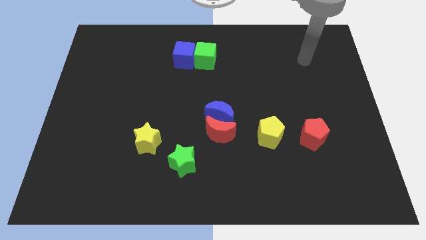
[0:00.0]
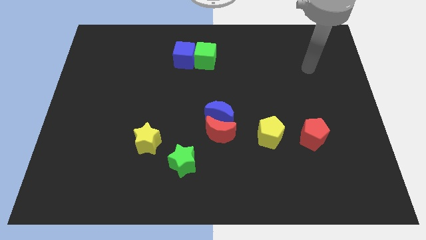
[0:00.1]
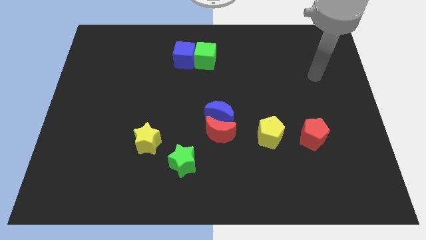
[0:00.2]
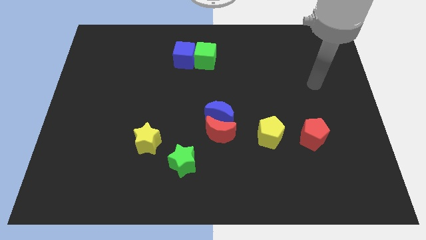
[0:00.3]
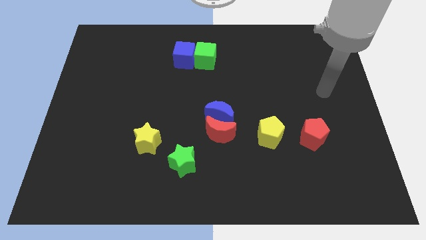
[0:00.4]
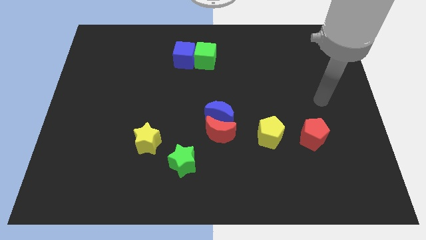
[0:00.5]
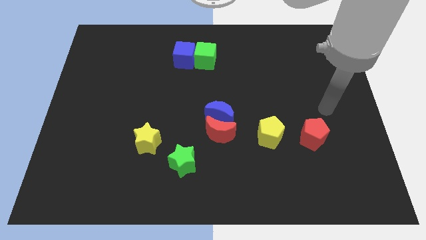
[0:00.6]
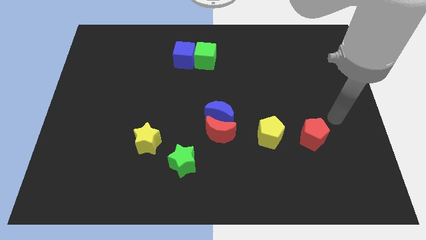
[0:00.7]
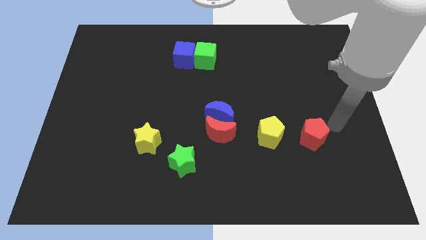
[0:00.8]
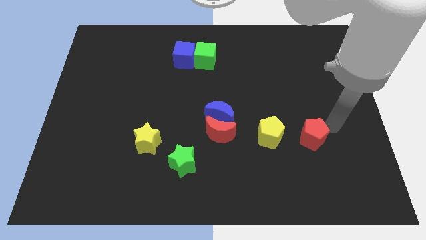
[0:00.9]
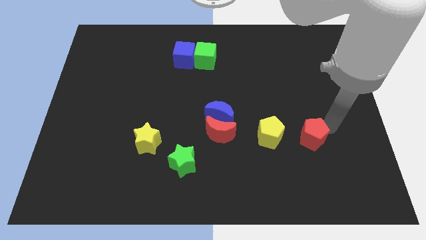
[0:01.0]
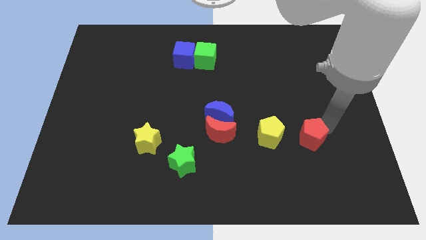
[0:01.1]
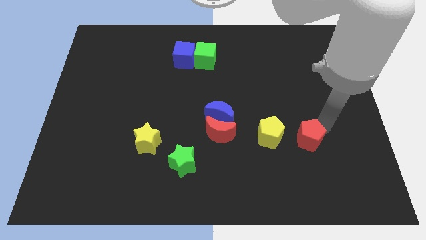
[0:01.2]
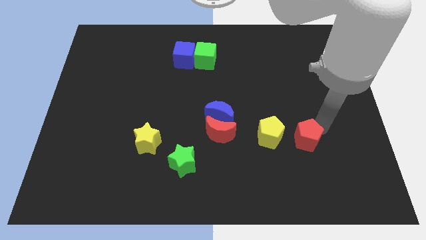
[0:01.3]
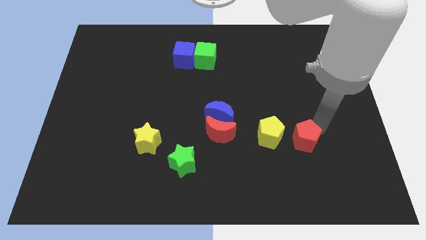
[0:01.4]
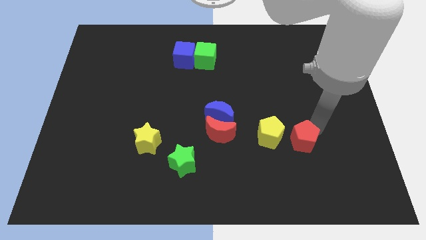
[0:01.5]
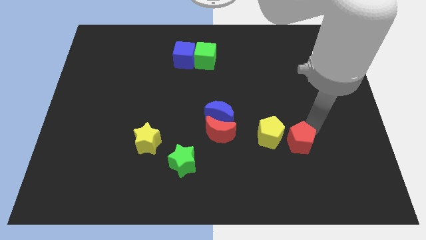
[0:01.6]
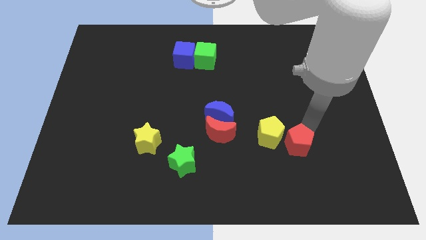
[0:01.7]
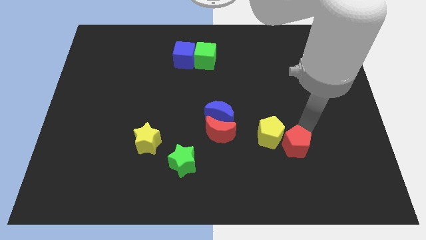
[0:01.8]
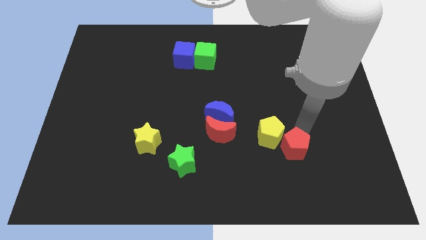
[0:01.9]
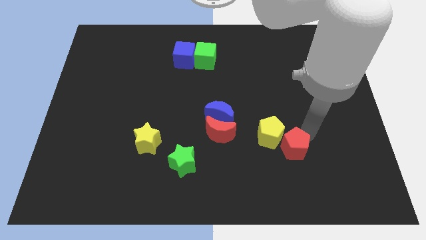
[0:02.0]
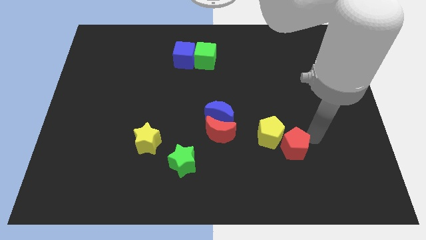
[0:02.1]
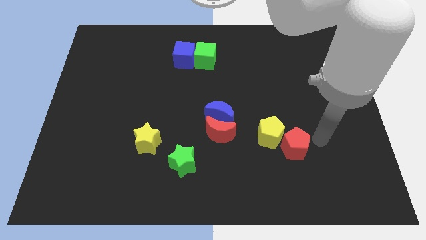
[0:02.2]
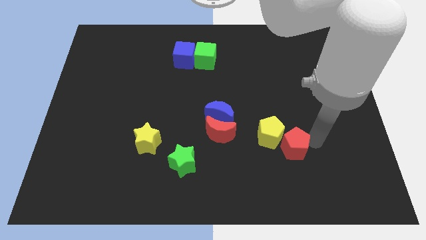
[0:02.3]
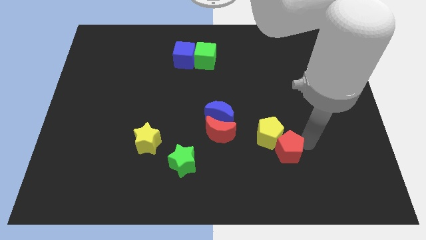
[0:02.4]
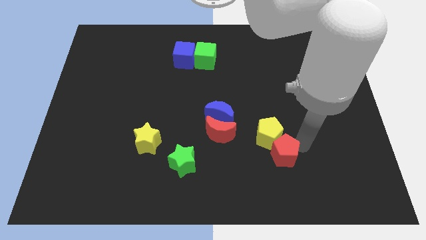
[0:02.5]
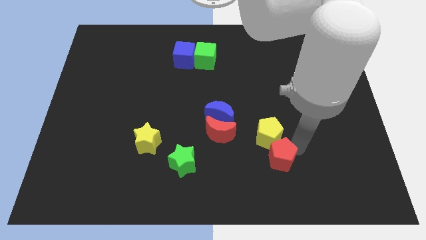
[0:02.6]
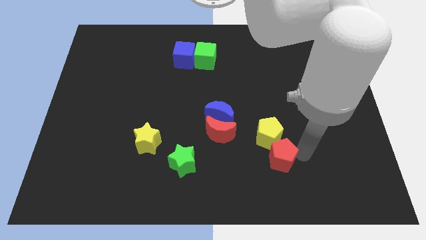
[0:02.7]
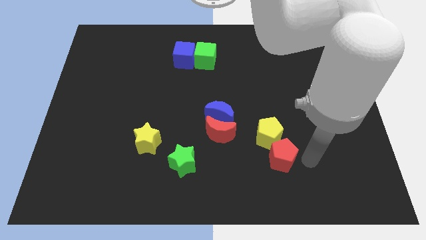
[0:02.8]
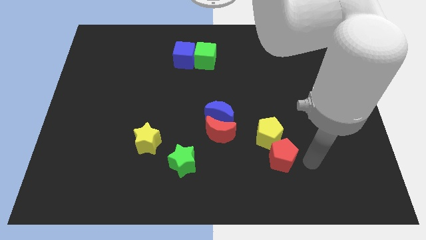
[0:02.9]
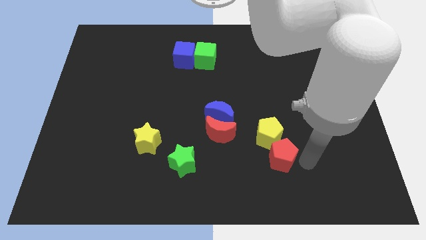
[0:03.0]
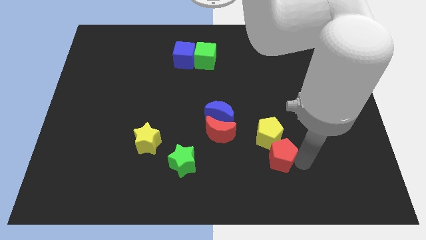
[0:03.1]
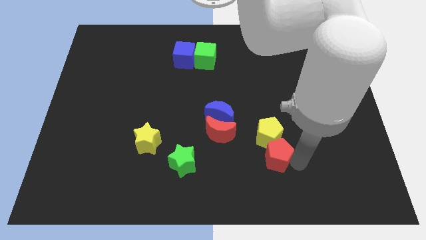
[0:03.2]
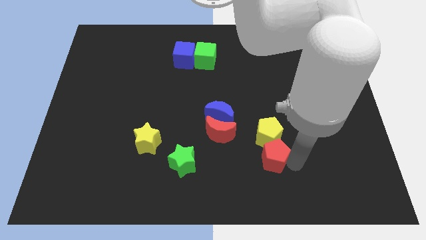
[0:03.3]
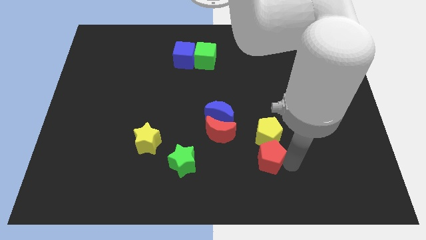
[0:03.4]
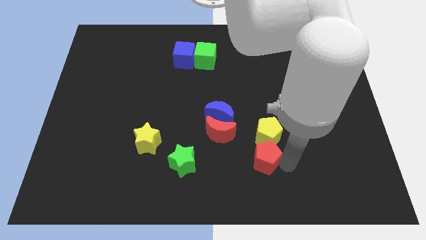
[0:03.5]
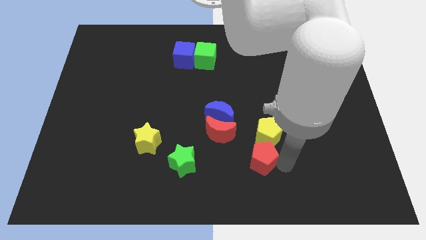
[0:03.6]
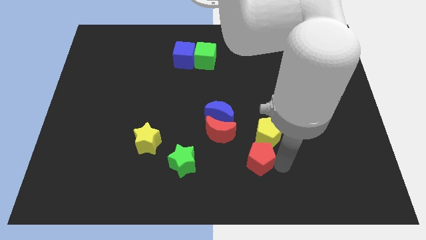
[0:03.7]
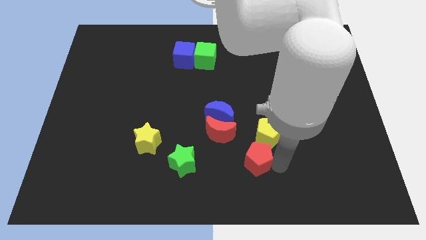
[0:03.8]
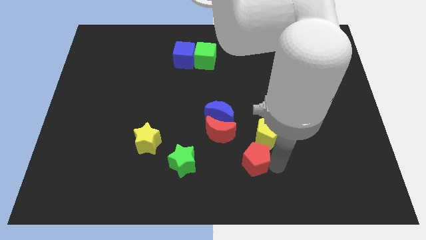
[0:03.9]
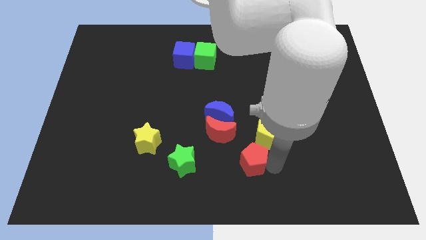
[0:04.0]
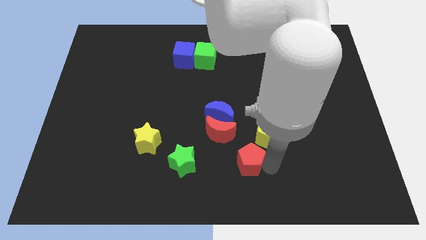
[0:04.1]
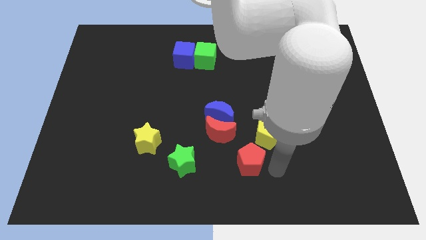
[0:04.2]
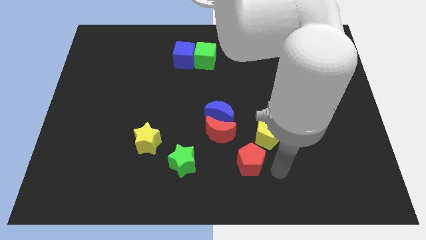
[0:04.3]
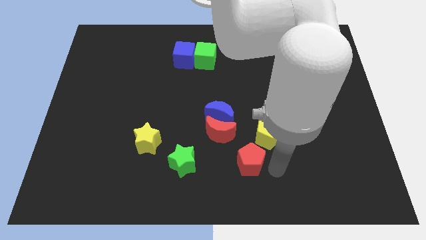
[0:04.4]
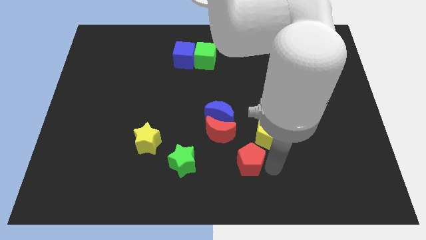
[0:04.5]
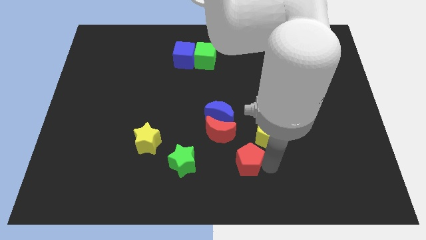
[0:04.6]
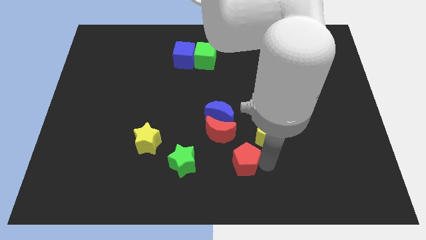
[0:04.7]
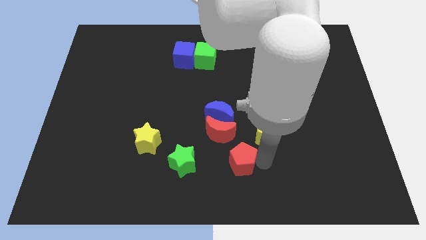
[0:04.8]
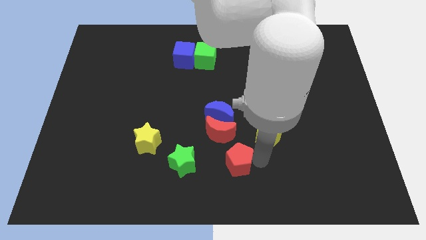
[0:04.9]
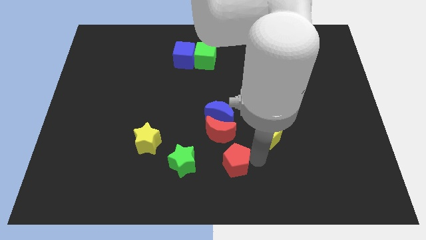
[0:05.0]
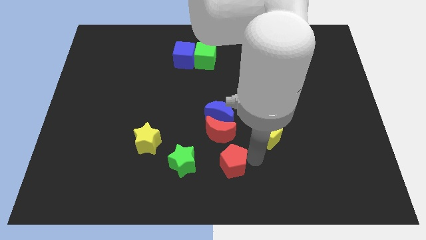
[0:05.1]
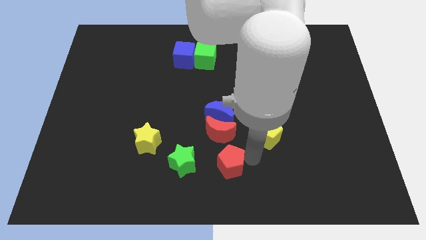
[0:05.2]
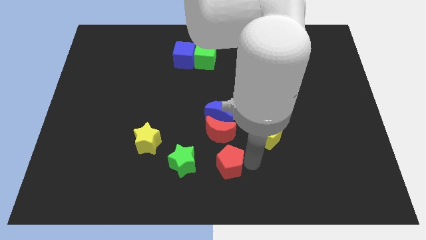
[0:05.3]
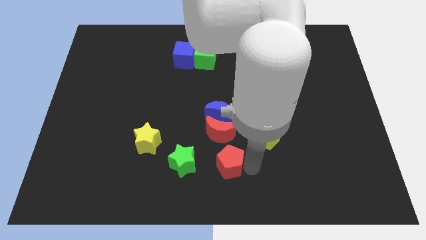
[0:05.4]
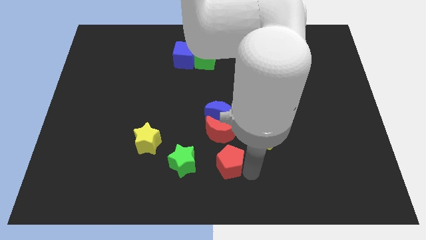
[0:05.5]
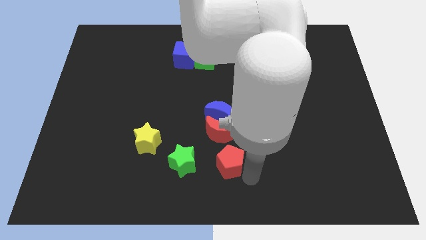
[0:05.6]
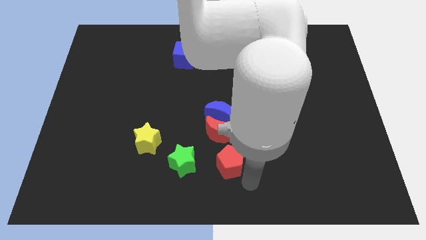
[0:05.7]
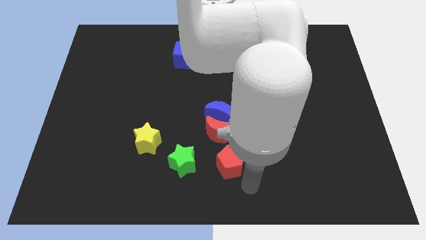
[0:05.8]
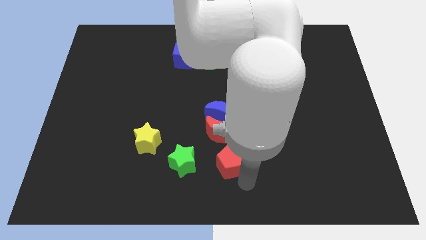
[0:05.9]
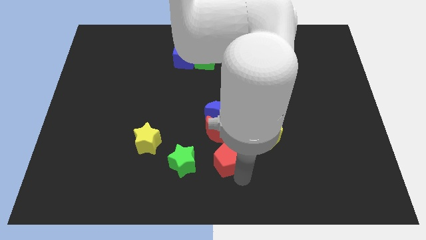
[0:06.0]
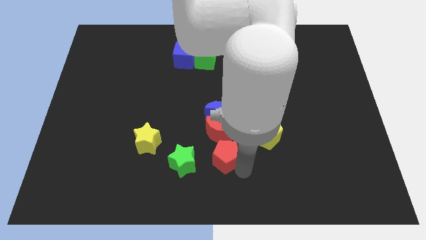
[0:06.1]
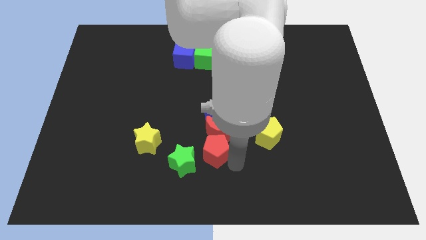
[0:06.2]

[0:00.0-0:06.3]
push the red pentagon left

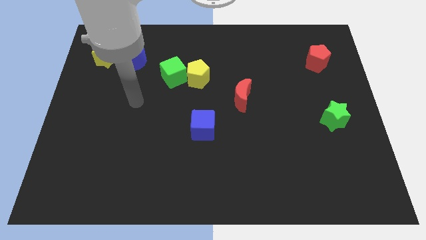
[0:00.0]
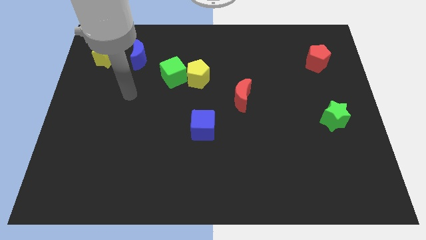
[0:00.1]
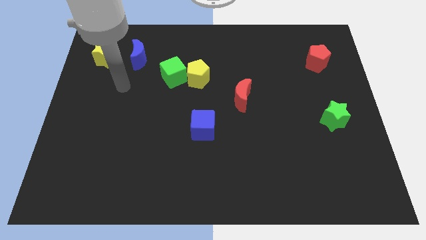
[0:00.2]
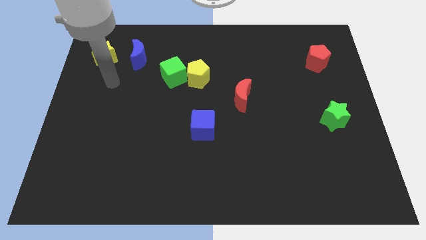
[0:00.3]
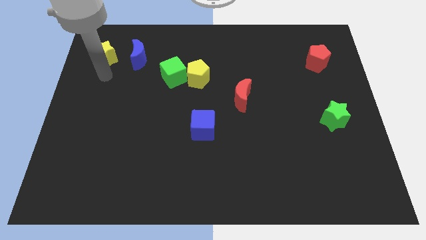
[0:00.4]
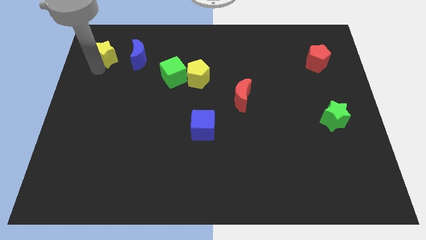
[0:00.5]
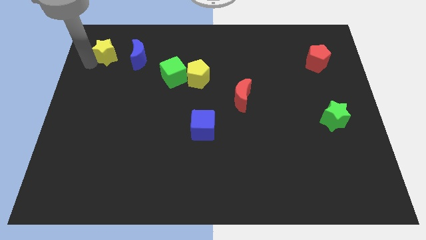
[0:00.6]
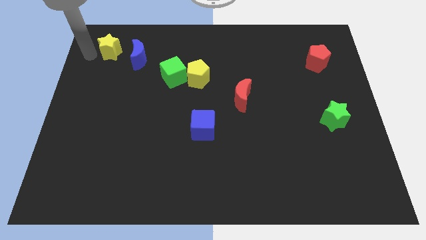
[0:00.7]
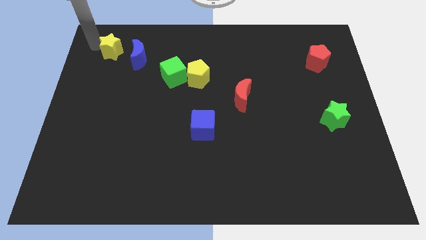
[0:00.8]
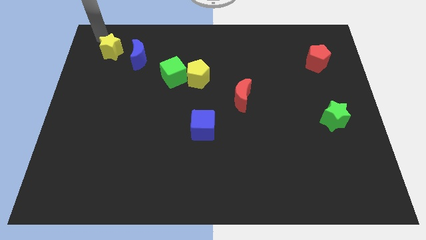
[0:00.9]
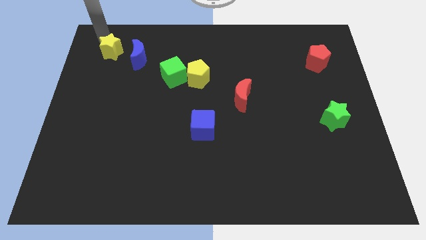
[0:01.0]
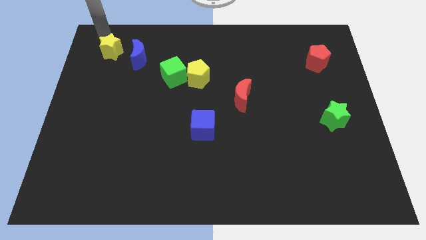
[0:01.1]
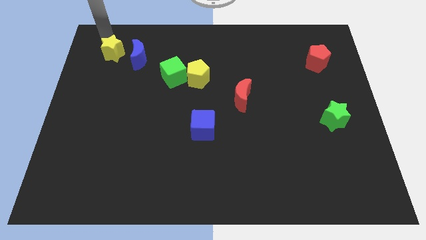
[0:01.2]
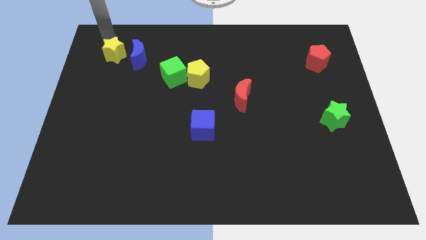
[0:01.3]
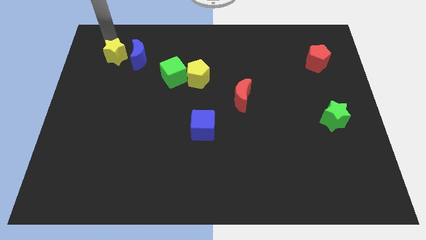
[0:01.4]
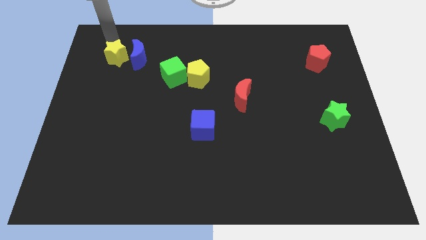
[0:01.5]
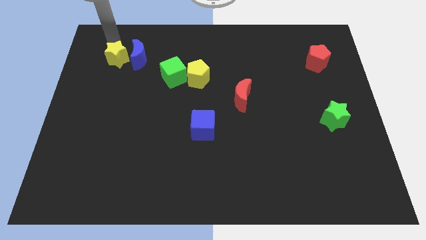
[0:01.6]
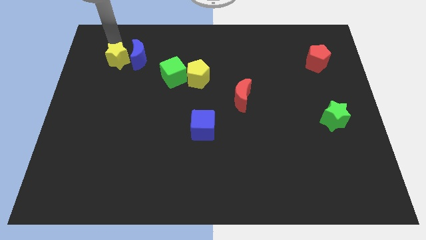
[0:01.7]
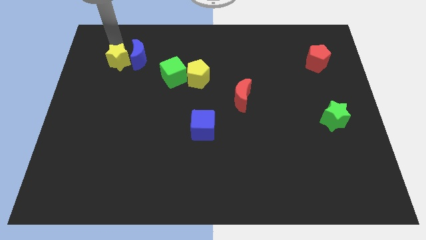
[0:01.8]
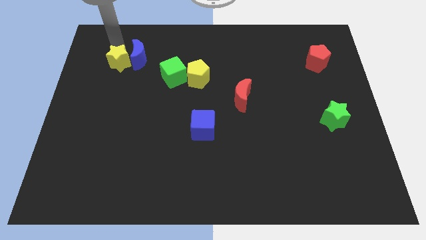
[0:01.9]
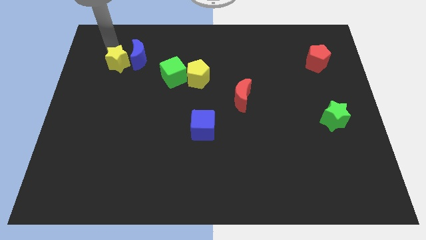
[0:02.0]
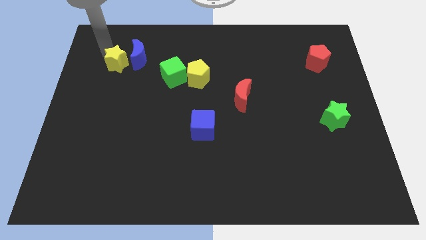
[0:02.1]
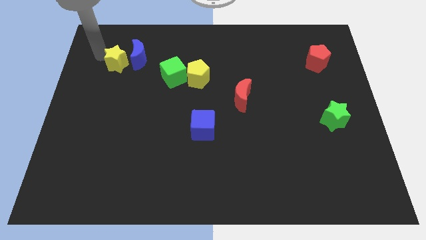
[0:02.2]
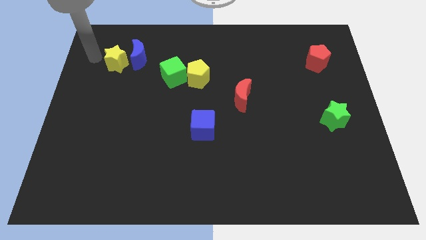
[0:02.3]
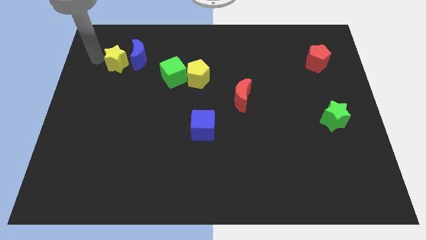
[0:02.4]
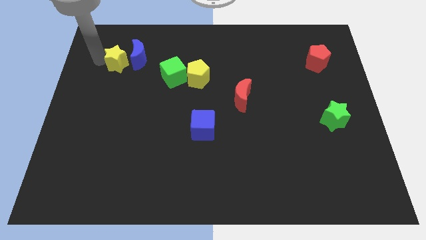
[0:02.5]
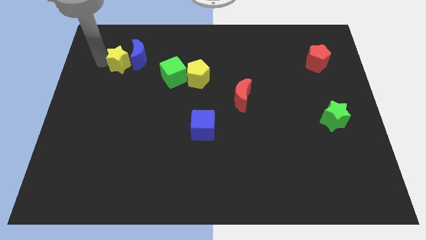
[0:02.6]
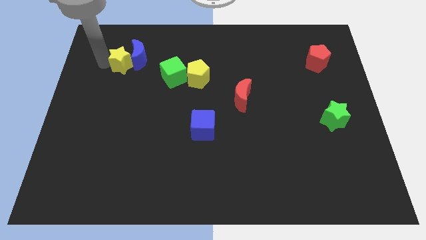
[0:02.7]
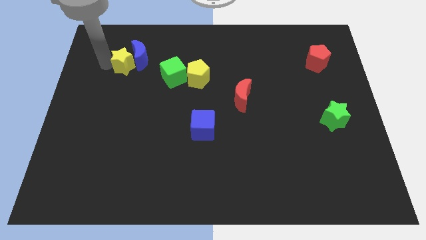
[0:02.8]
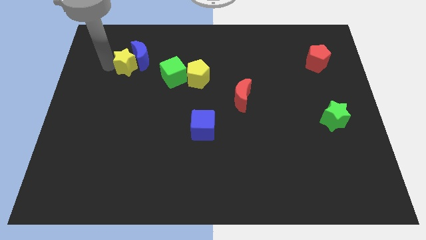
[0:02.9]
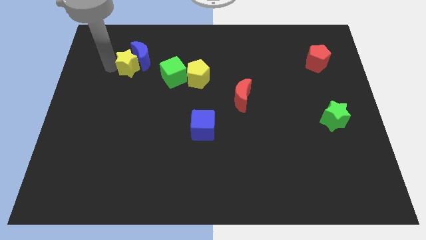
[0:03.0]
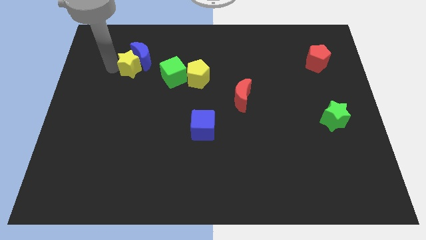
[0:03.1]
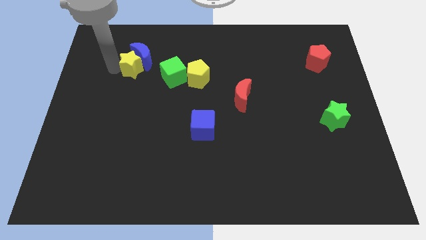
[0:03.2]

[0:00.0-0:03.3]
slide the yellow star to the right somewhat
